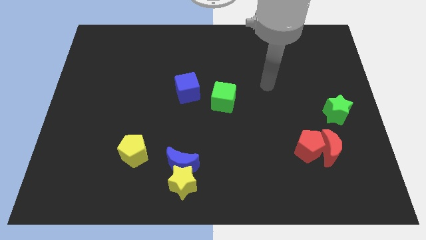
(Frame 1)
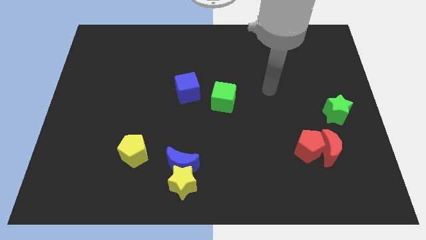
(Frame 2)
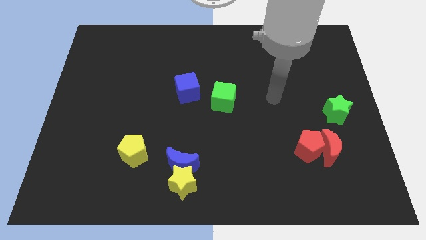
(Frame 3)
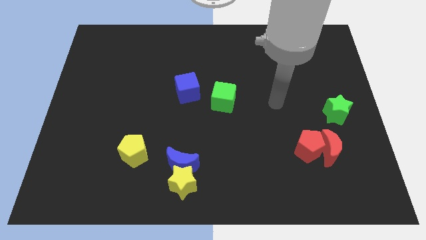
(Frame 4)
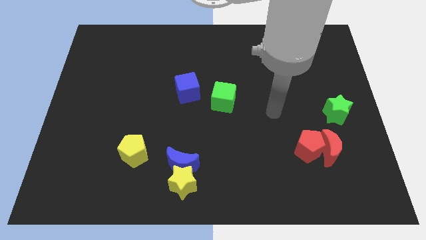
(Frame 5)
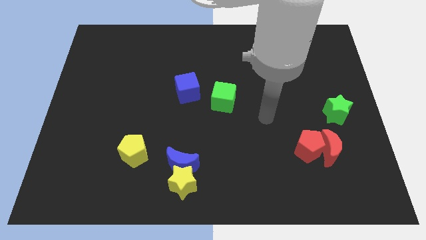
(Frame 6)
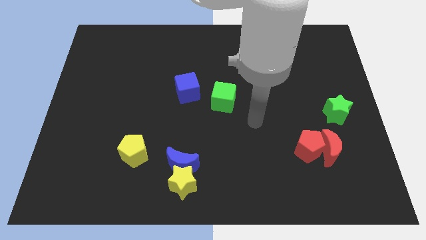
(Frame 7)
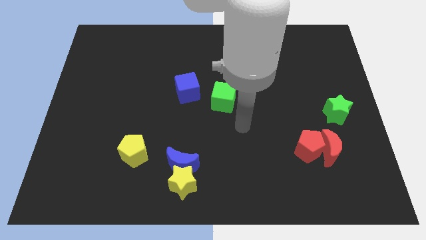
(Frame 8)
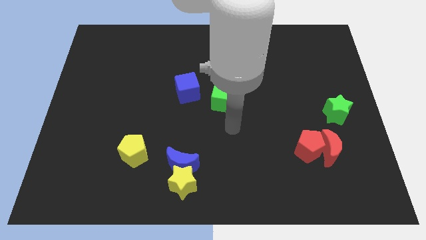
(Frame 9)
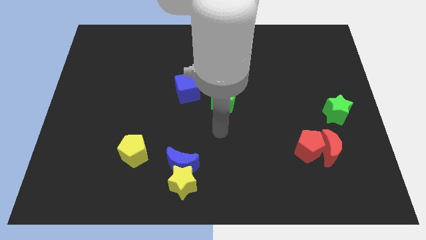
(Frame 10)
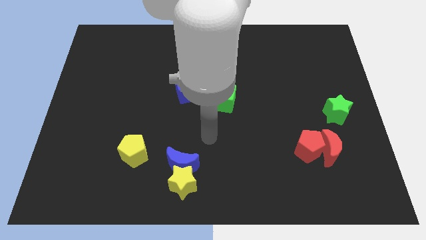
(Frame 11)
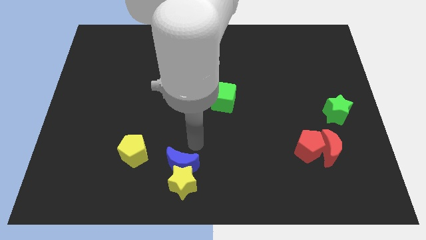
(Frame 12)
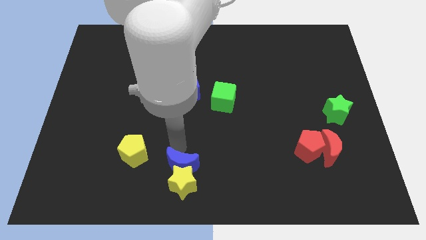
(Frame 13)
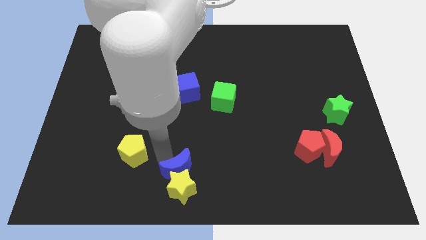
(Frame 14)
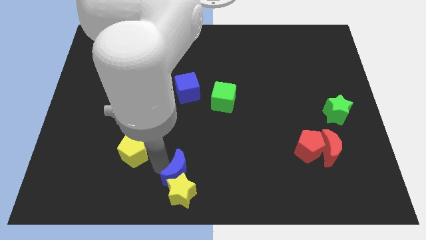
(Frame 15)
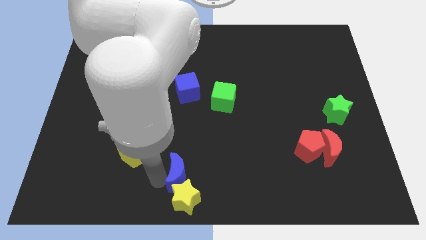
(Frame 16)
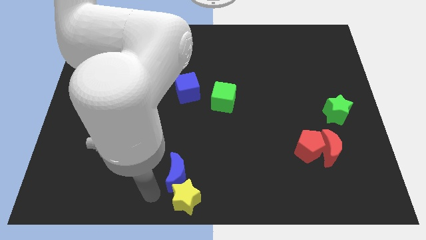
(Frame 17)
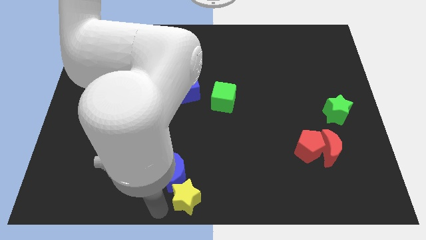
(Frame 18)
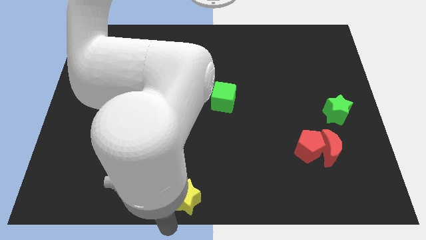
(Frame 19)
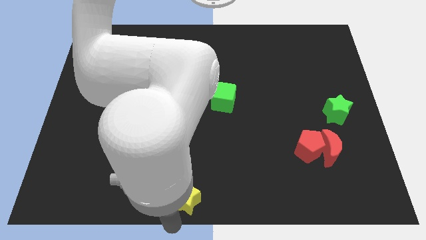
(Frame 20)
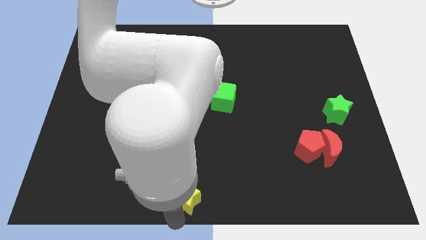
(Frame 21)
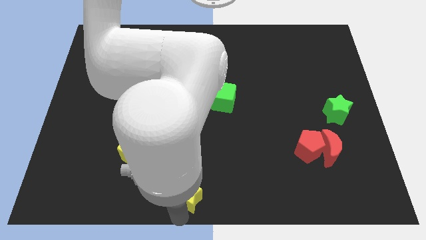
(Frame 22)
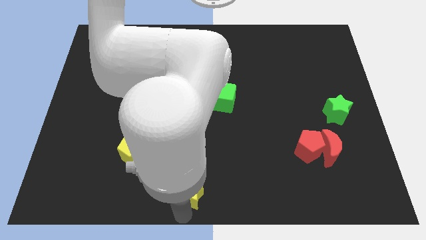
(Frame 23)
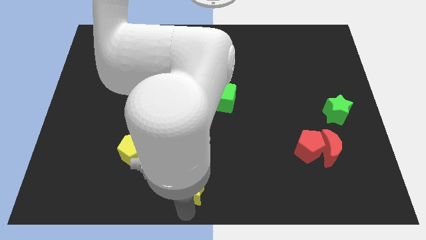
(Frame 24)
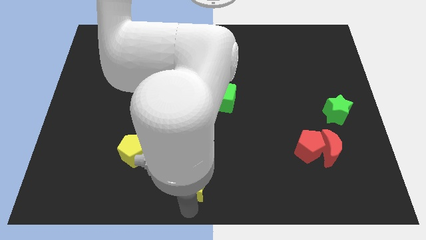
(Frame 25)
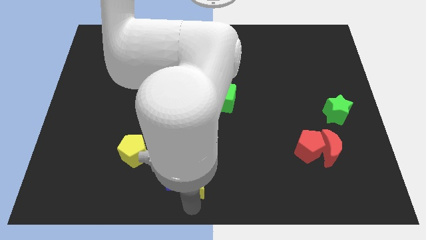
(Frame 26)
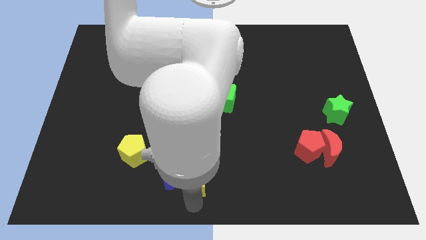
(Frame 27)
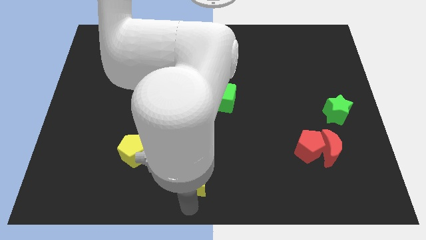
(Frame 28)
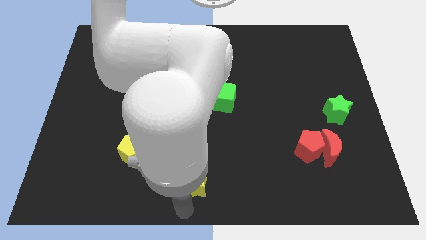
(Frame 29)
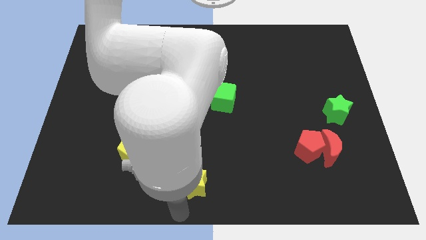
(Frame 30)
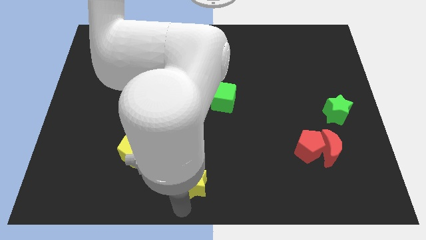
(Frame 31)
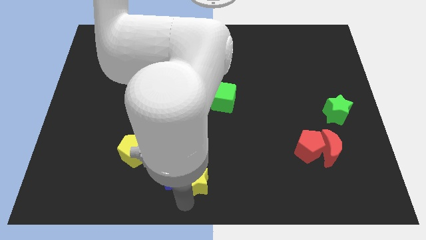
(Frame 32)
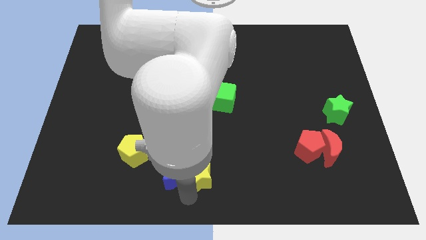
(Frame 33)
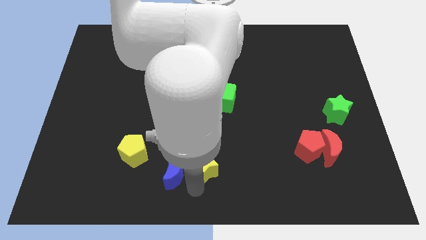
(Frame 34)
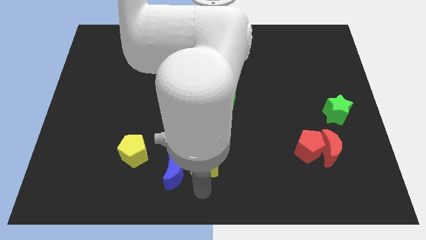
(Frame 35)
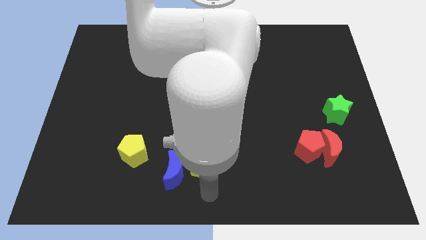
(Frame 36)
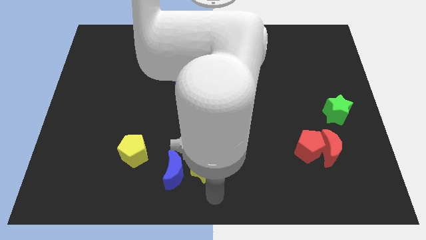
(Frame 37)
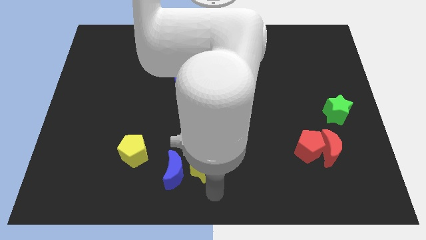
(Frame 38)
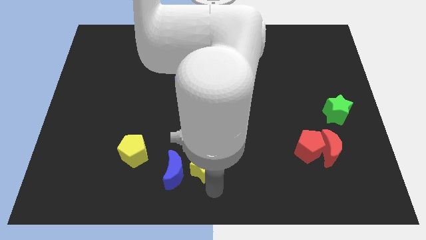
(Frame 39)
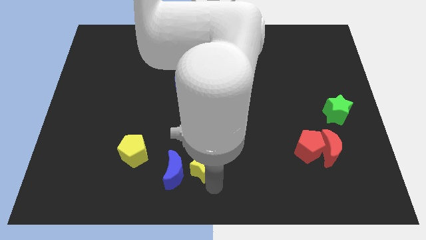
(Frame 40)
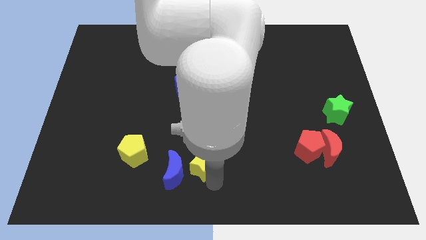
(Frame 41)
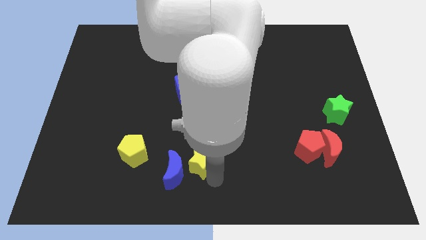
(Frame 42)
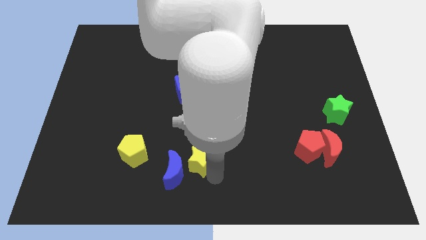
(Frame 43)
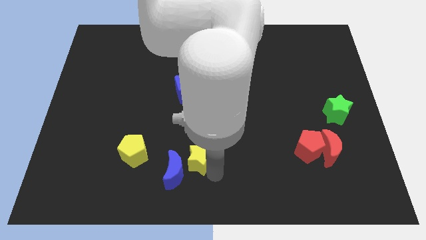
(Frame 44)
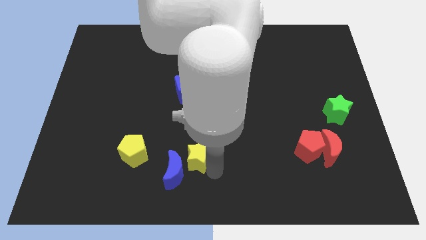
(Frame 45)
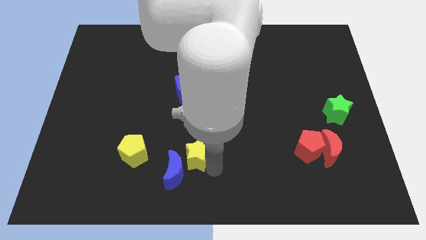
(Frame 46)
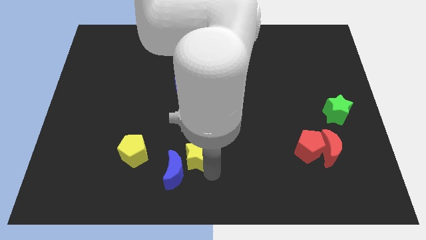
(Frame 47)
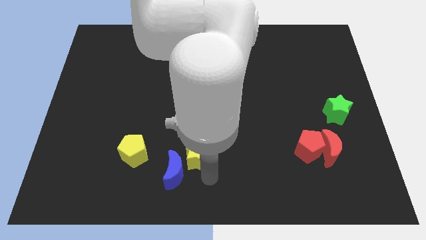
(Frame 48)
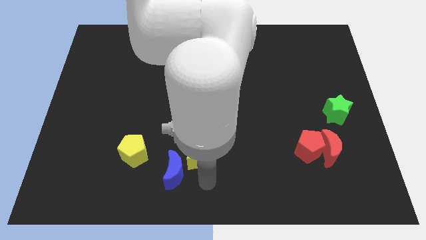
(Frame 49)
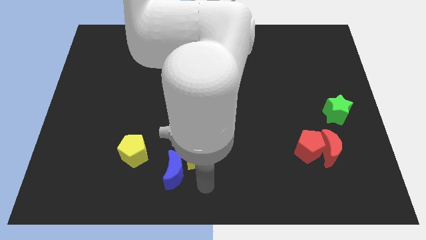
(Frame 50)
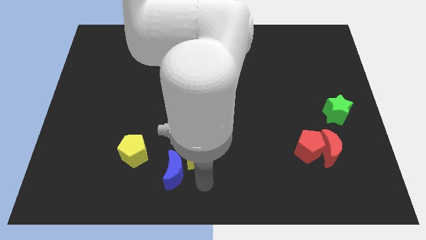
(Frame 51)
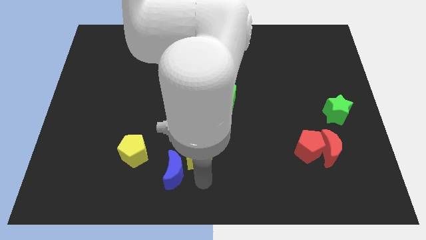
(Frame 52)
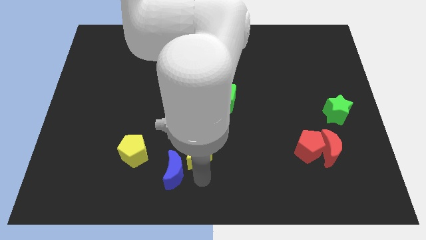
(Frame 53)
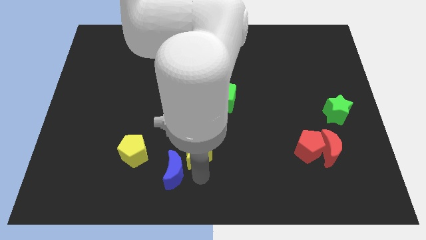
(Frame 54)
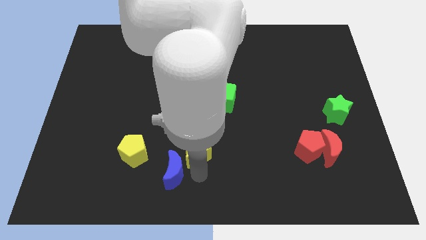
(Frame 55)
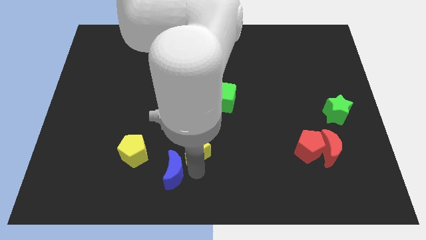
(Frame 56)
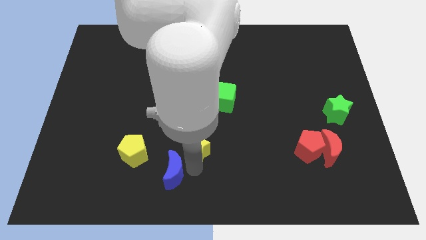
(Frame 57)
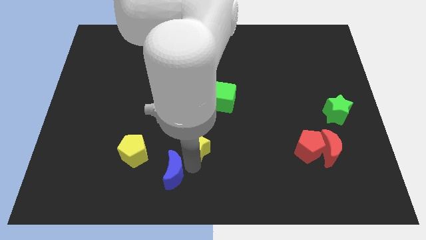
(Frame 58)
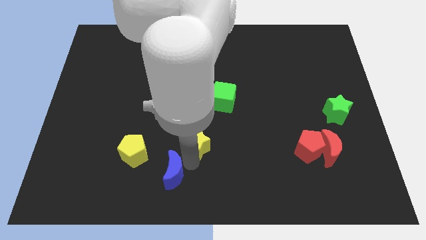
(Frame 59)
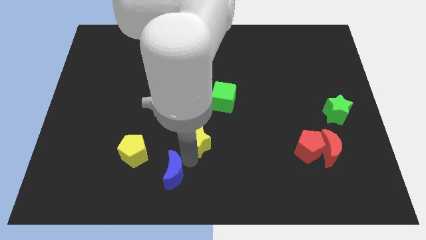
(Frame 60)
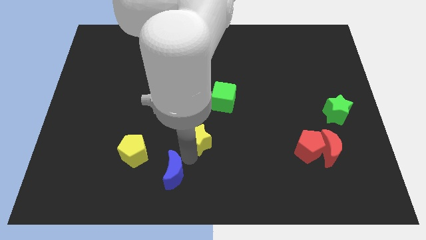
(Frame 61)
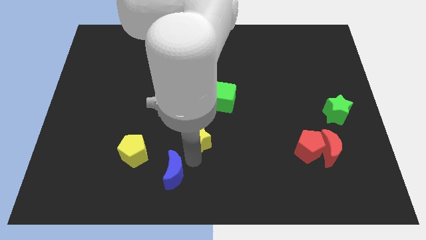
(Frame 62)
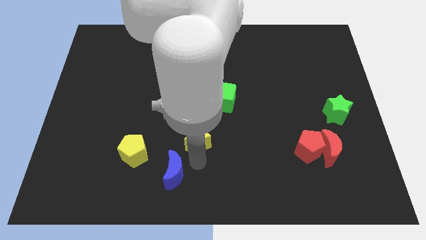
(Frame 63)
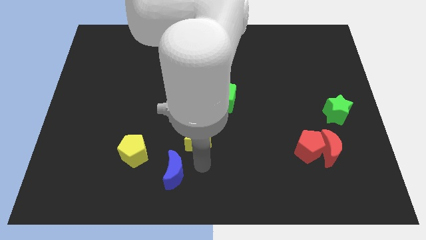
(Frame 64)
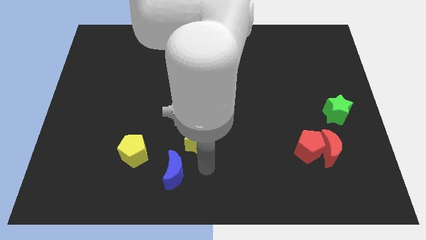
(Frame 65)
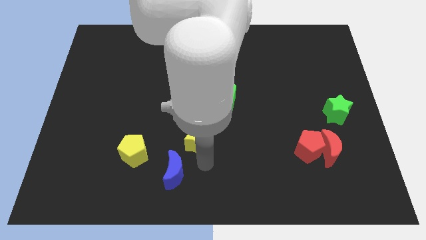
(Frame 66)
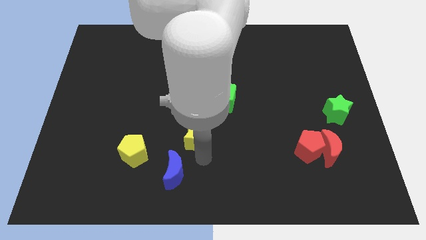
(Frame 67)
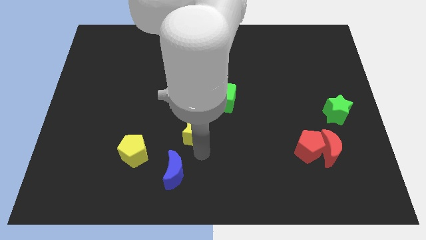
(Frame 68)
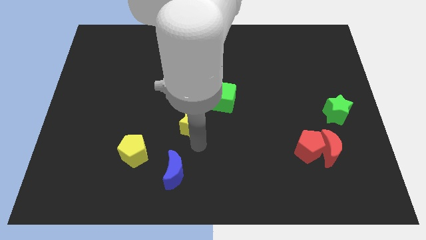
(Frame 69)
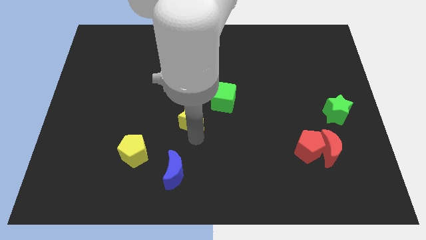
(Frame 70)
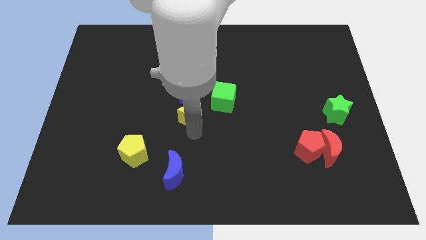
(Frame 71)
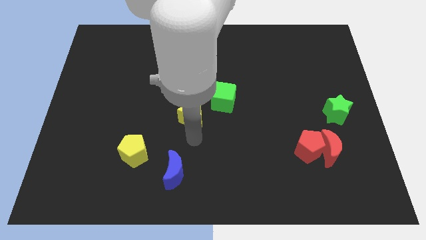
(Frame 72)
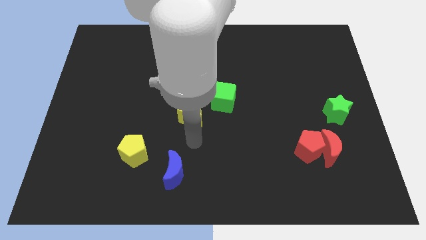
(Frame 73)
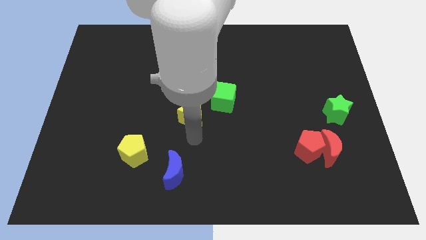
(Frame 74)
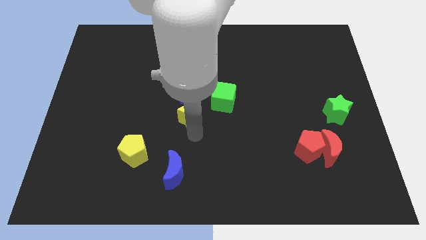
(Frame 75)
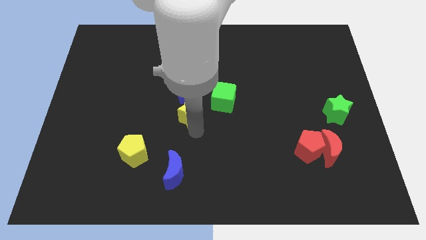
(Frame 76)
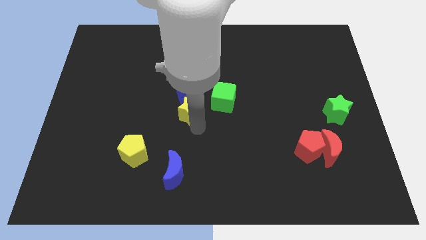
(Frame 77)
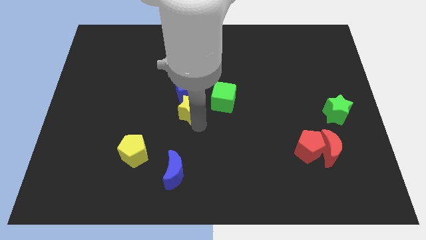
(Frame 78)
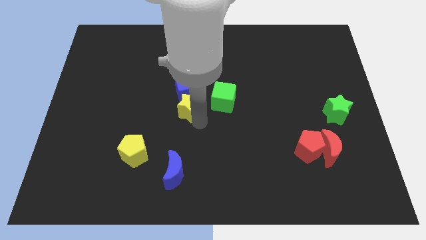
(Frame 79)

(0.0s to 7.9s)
push the yellow star to the blue cube
